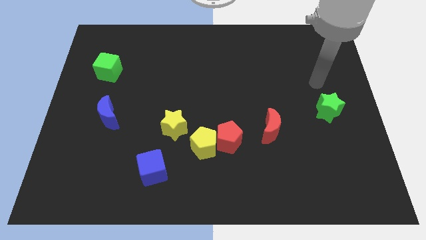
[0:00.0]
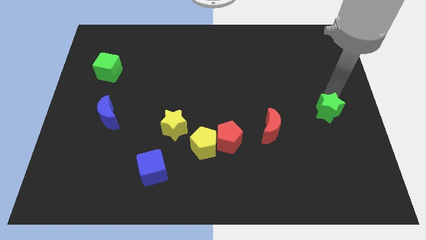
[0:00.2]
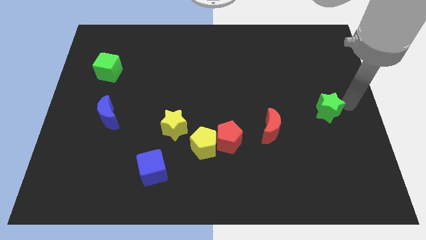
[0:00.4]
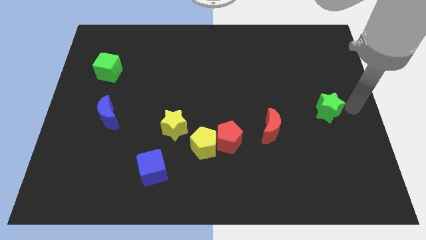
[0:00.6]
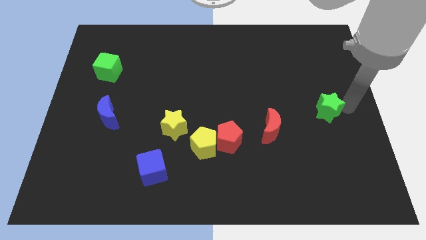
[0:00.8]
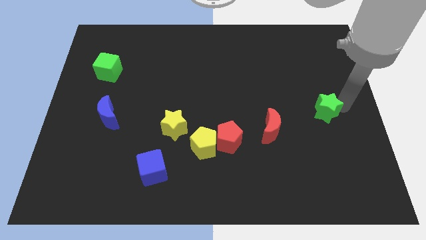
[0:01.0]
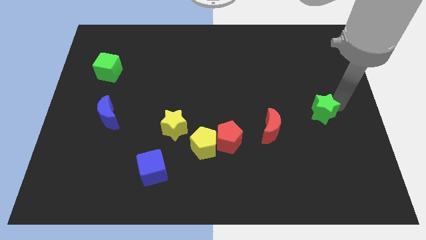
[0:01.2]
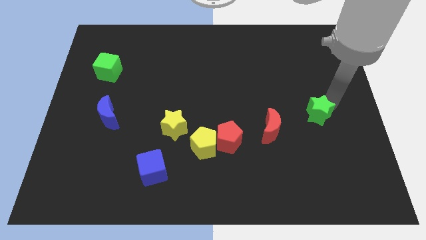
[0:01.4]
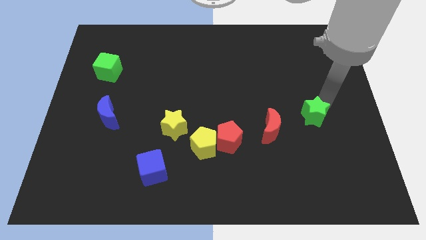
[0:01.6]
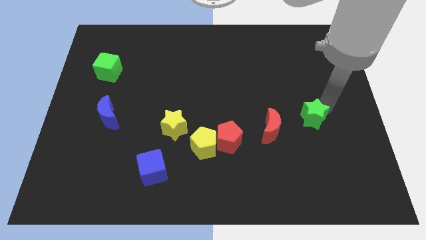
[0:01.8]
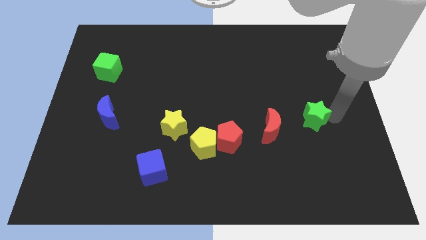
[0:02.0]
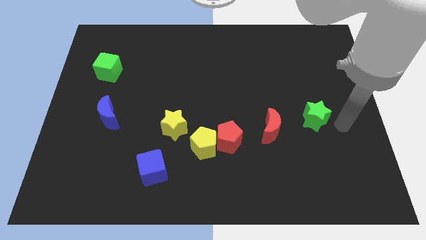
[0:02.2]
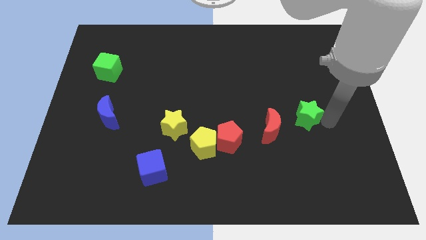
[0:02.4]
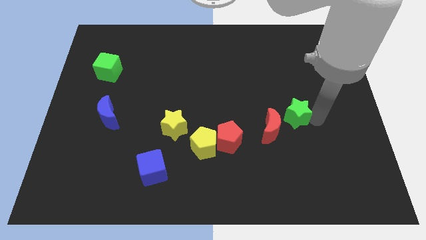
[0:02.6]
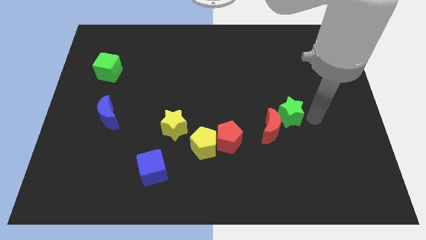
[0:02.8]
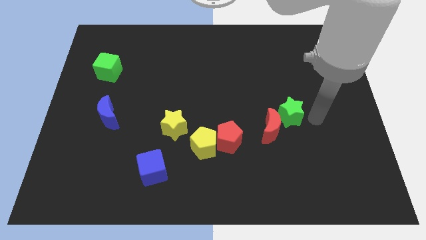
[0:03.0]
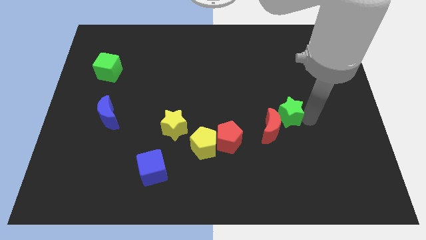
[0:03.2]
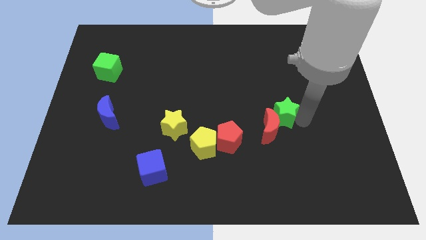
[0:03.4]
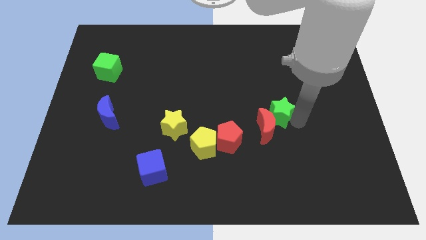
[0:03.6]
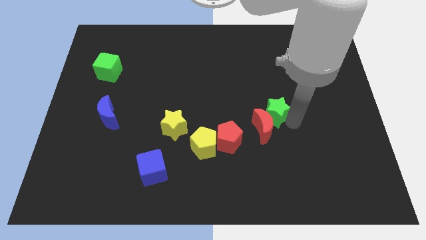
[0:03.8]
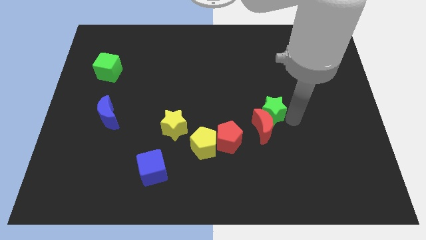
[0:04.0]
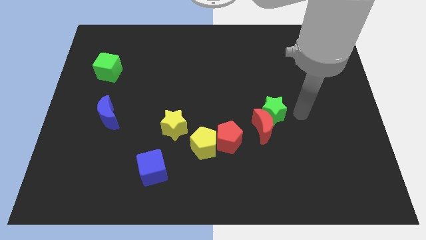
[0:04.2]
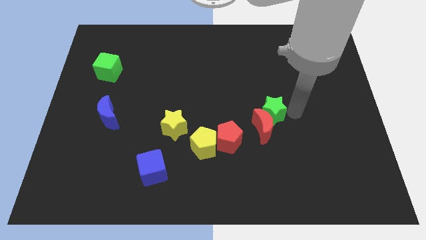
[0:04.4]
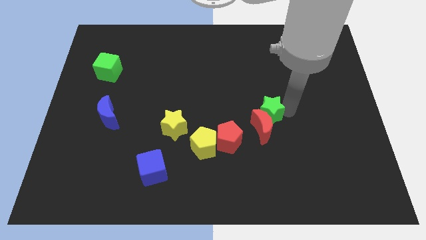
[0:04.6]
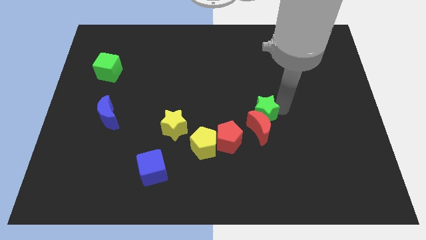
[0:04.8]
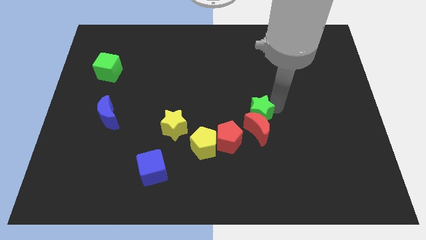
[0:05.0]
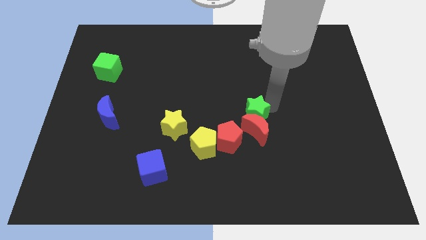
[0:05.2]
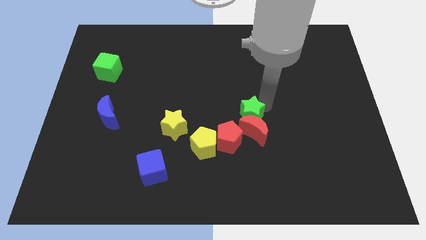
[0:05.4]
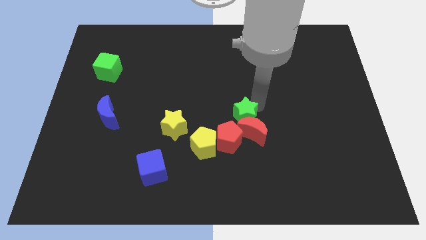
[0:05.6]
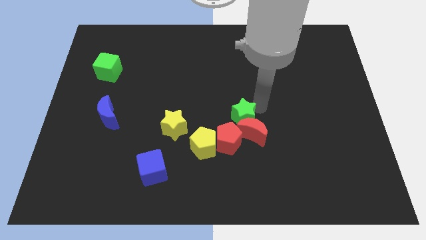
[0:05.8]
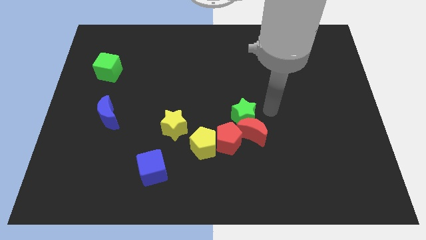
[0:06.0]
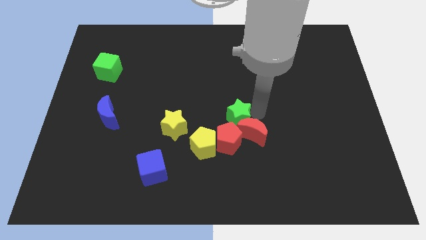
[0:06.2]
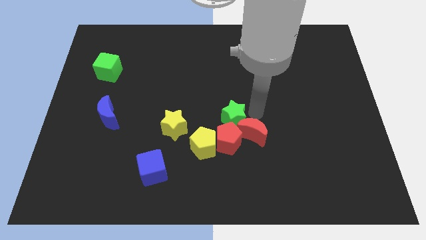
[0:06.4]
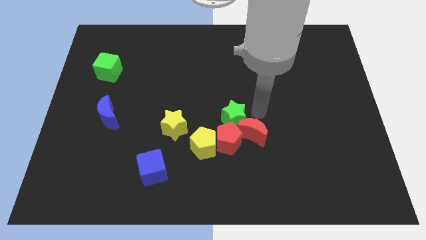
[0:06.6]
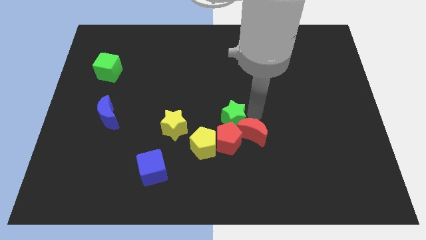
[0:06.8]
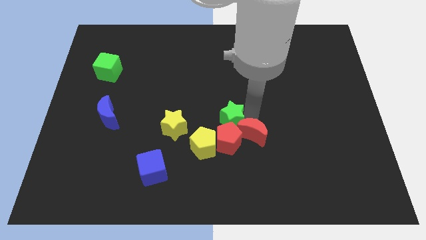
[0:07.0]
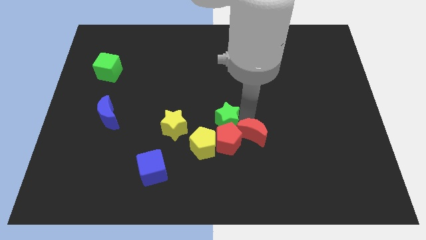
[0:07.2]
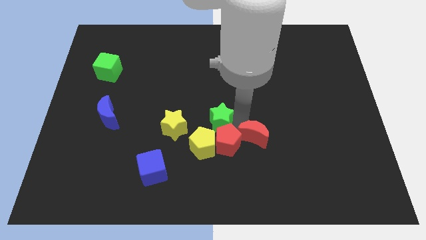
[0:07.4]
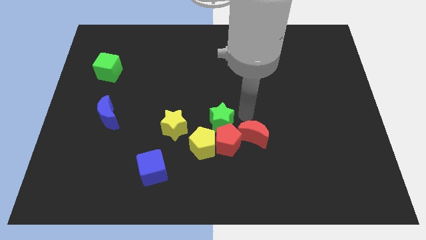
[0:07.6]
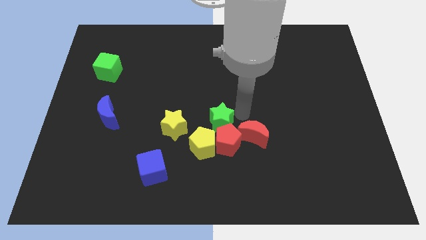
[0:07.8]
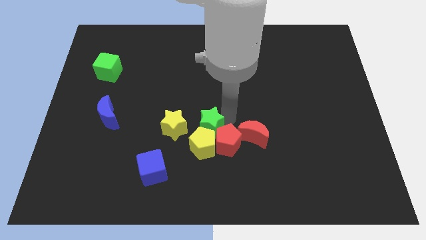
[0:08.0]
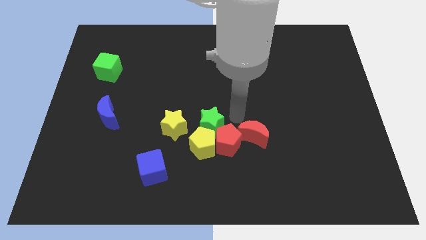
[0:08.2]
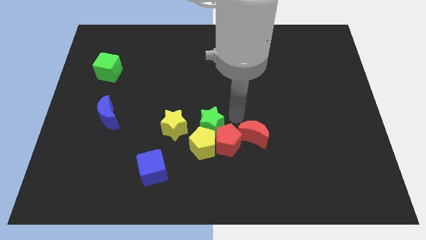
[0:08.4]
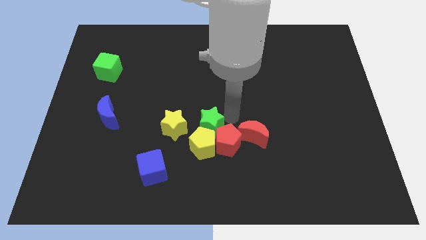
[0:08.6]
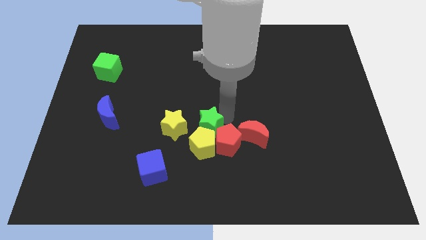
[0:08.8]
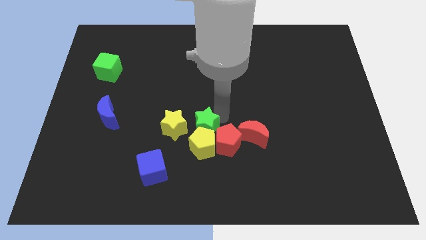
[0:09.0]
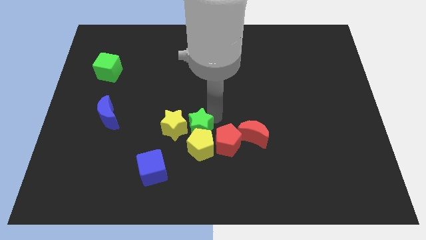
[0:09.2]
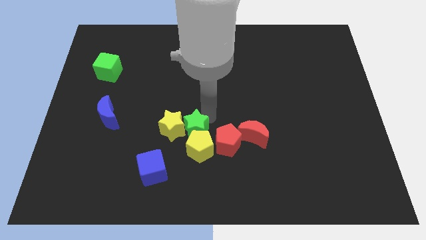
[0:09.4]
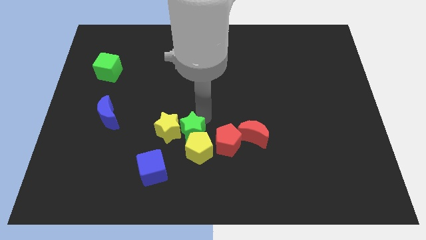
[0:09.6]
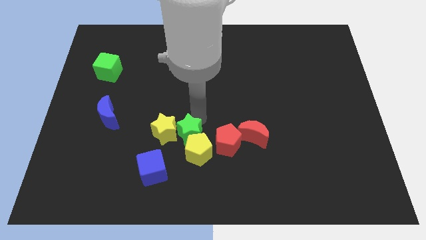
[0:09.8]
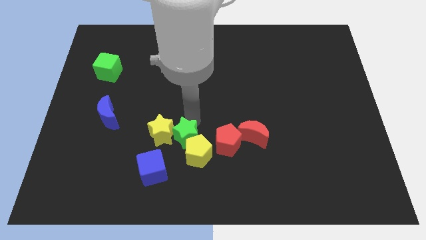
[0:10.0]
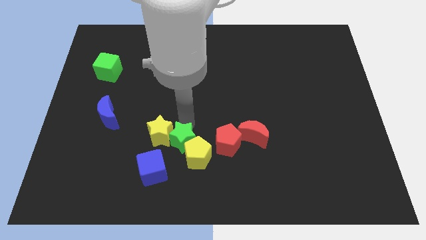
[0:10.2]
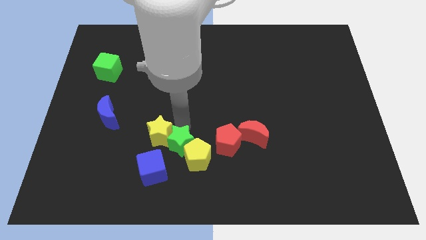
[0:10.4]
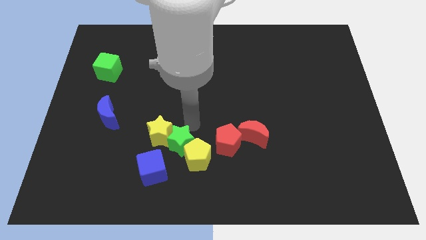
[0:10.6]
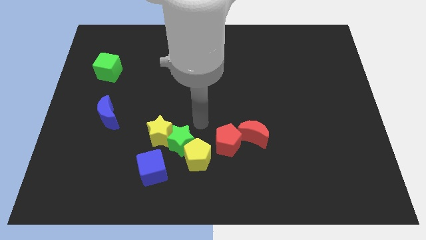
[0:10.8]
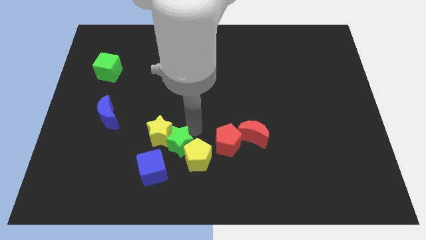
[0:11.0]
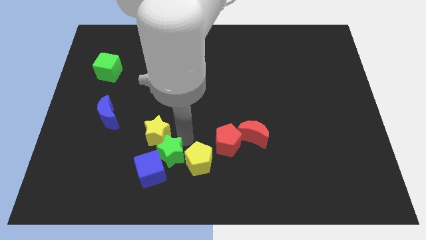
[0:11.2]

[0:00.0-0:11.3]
push the green star close to the blue cube

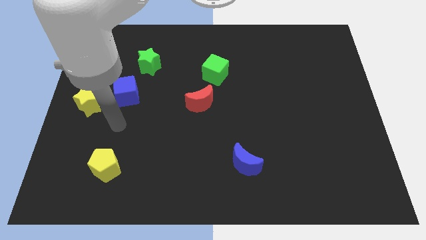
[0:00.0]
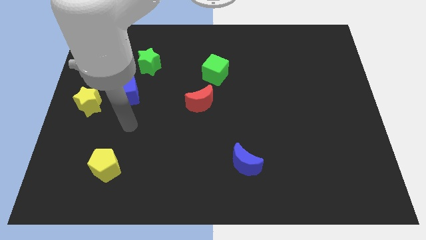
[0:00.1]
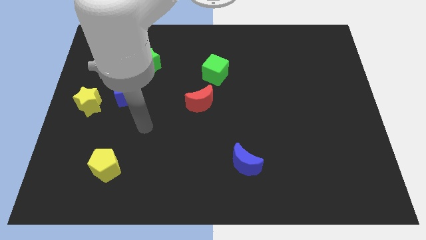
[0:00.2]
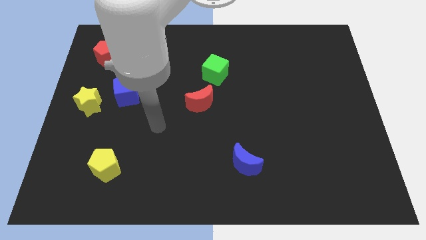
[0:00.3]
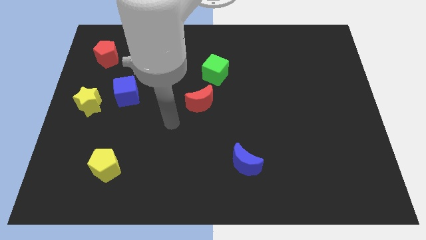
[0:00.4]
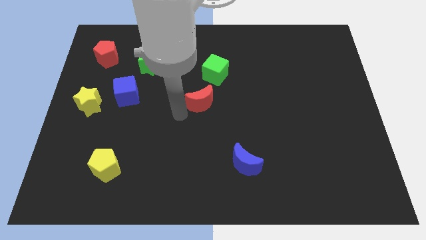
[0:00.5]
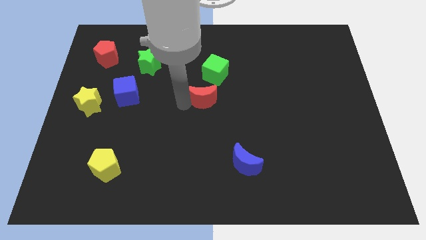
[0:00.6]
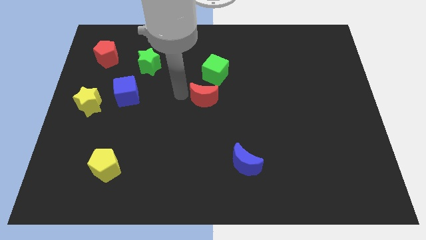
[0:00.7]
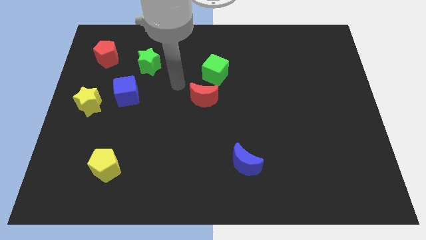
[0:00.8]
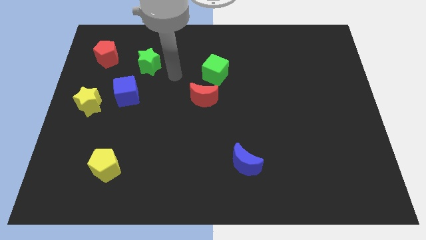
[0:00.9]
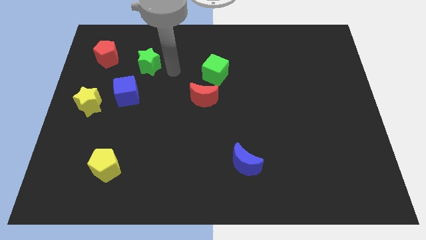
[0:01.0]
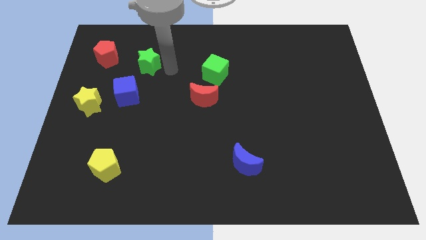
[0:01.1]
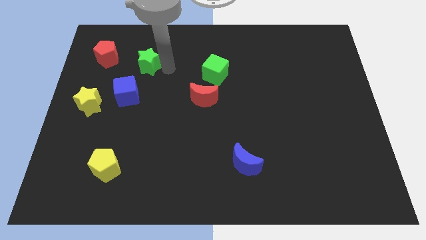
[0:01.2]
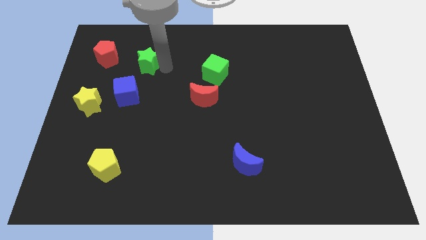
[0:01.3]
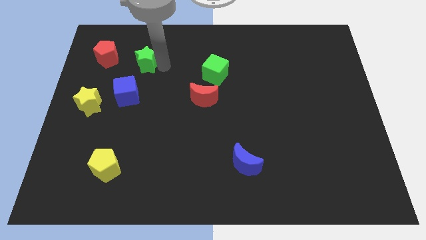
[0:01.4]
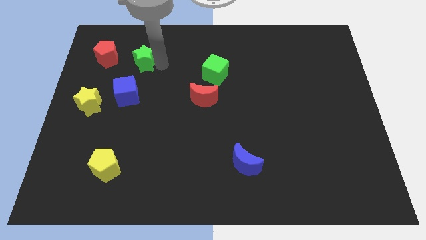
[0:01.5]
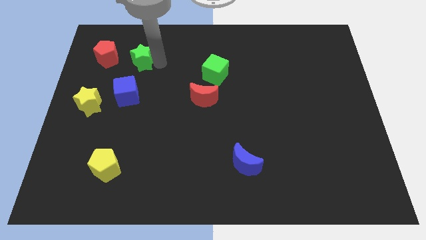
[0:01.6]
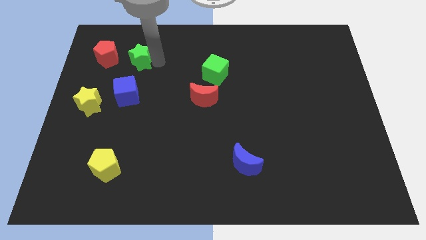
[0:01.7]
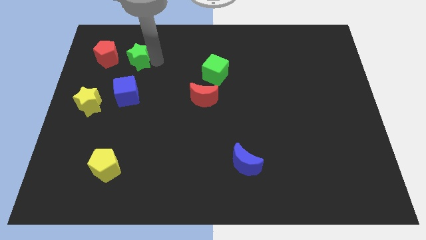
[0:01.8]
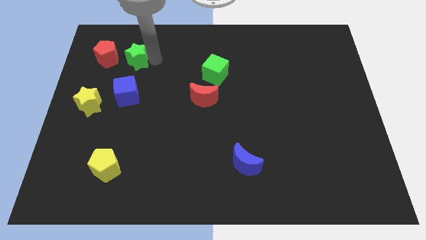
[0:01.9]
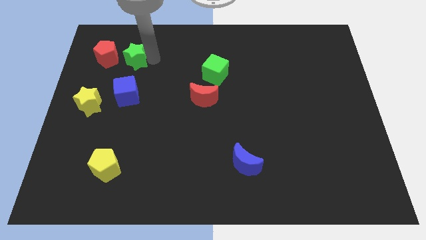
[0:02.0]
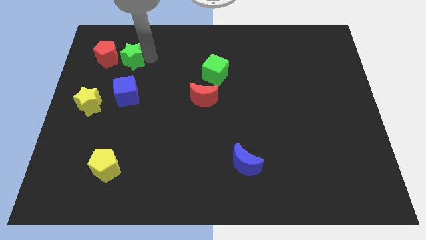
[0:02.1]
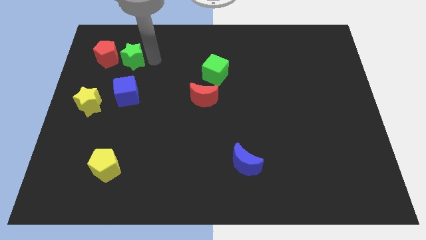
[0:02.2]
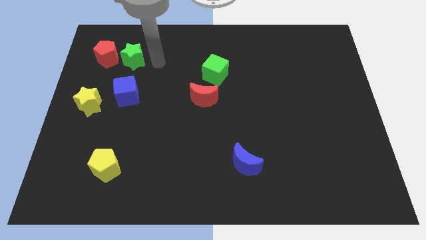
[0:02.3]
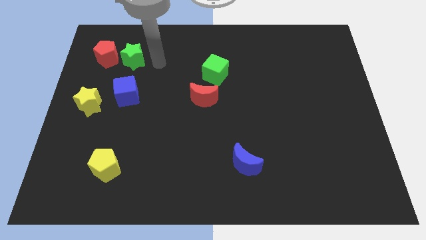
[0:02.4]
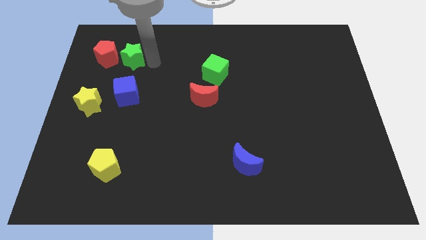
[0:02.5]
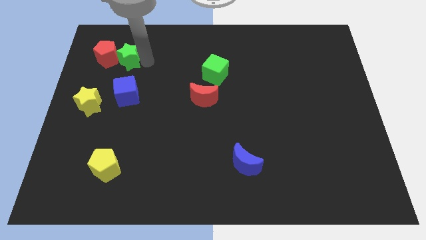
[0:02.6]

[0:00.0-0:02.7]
slide the green star to the red pentagon
